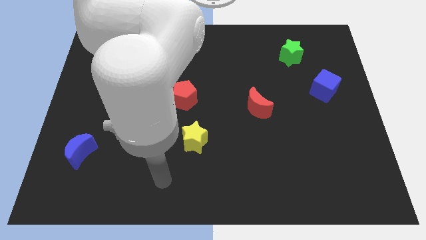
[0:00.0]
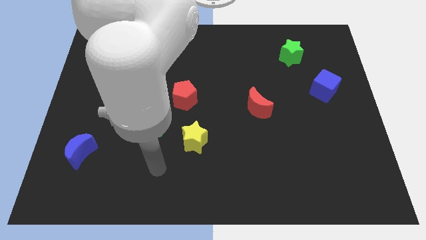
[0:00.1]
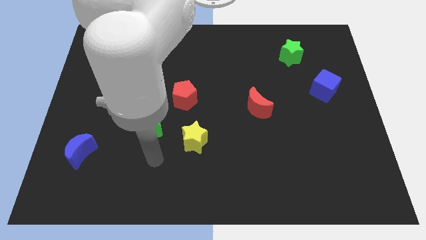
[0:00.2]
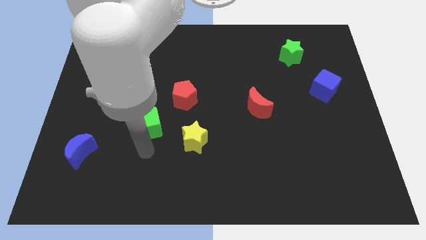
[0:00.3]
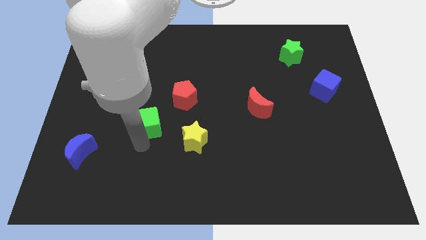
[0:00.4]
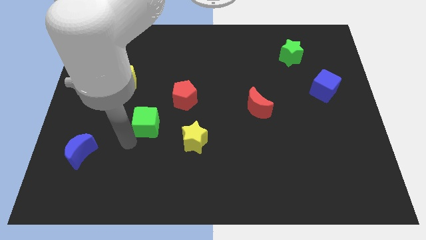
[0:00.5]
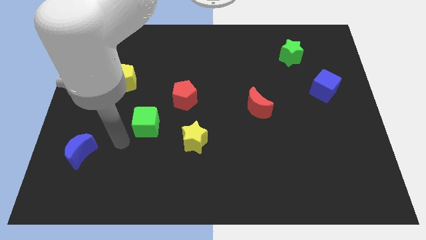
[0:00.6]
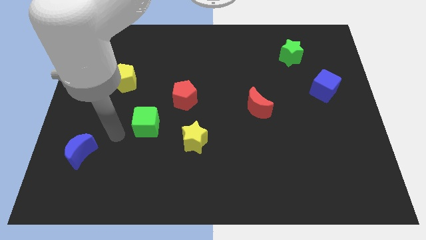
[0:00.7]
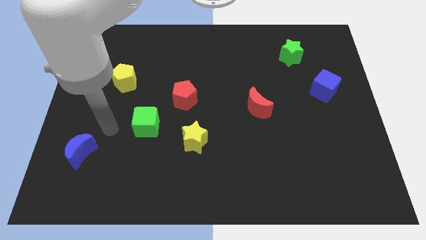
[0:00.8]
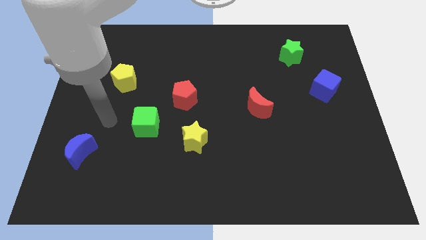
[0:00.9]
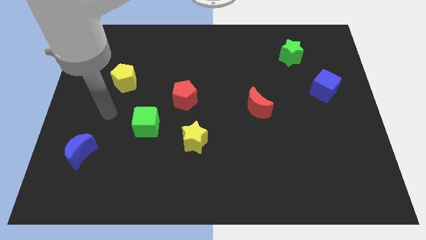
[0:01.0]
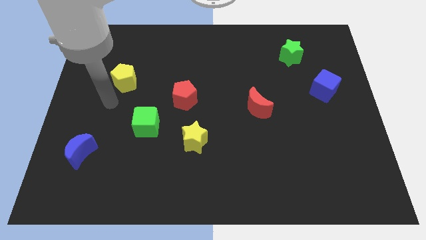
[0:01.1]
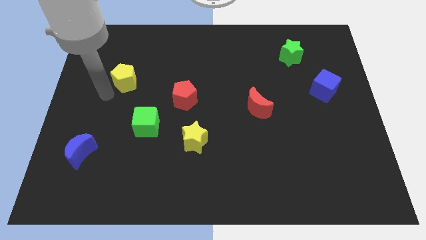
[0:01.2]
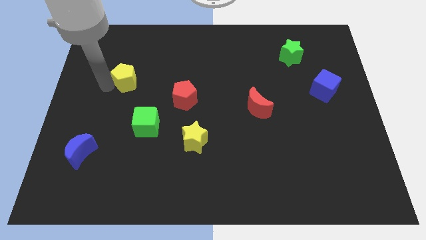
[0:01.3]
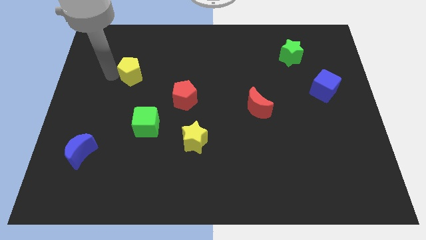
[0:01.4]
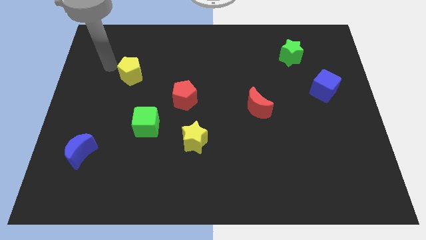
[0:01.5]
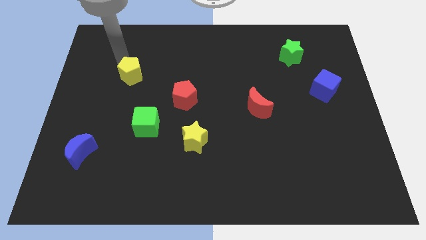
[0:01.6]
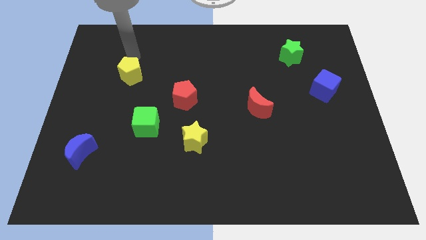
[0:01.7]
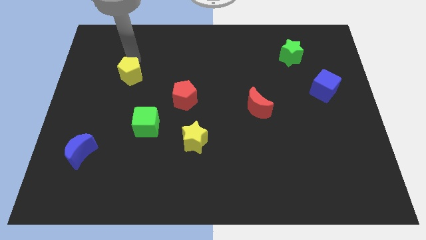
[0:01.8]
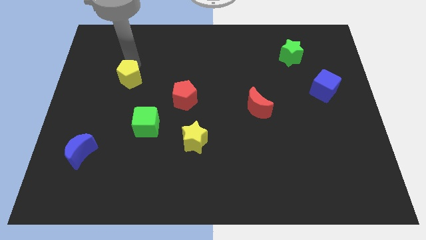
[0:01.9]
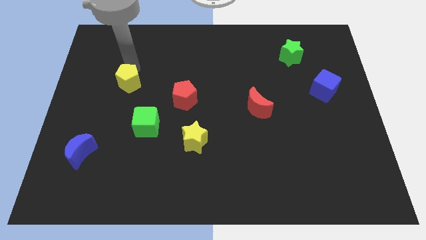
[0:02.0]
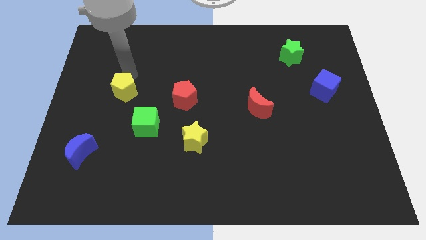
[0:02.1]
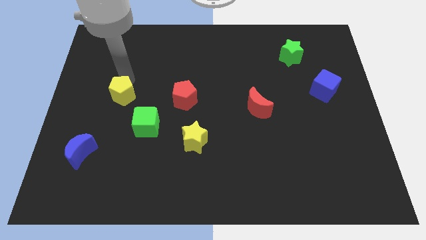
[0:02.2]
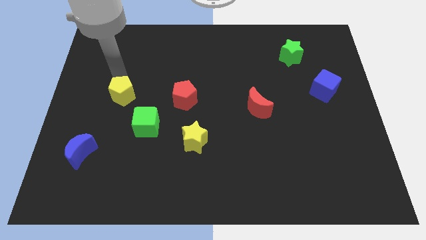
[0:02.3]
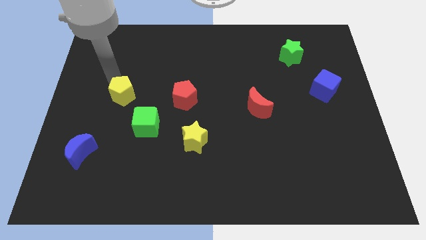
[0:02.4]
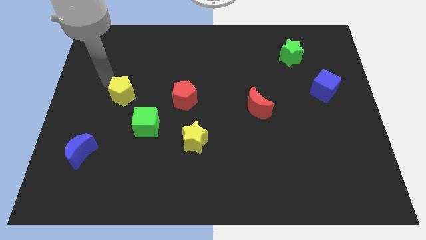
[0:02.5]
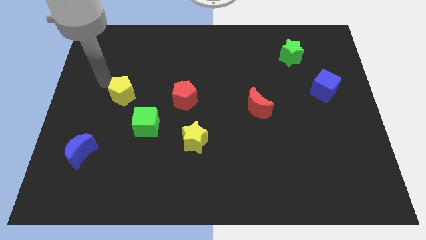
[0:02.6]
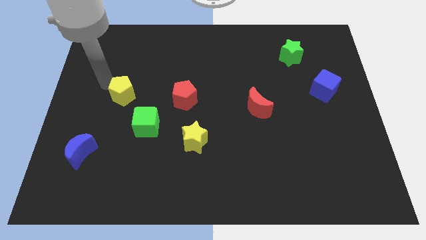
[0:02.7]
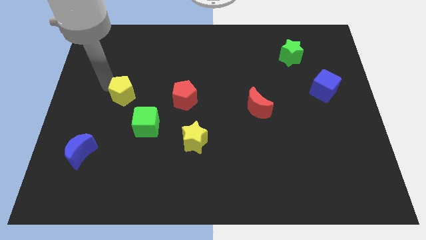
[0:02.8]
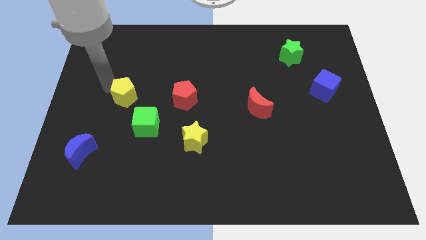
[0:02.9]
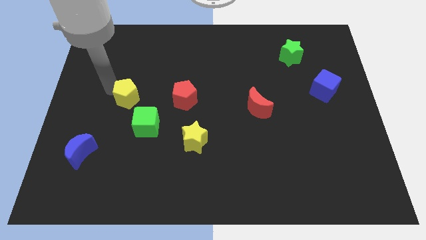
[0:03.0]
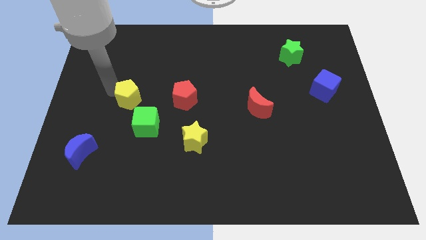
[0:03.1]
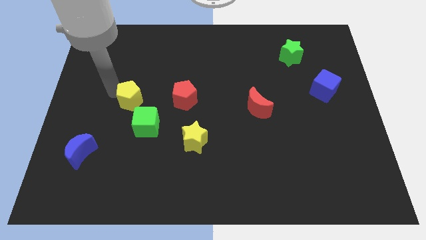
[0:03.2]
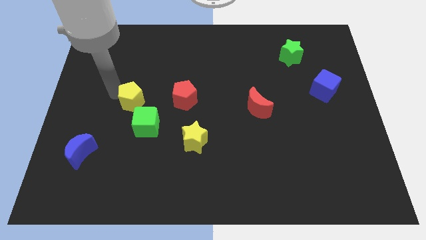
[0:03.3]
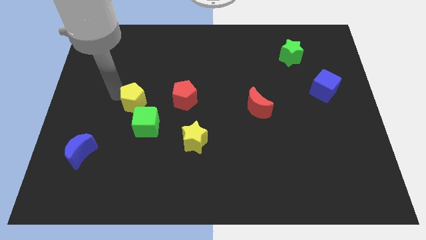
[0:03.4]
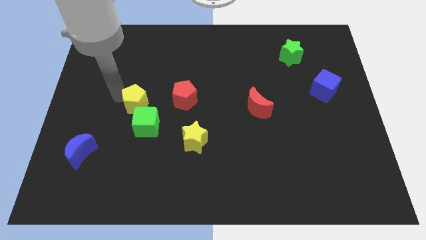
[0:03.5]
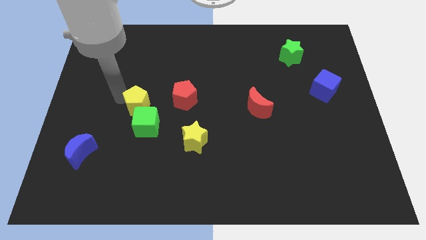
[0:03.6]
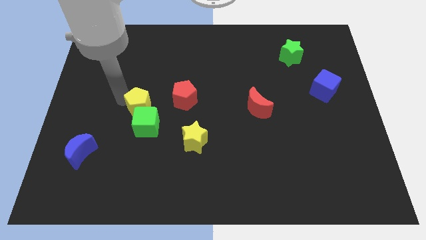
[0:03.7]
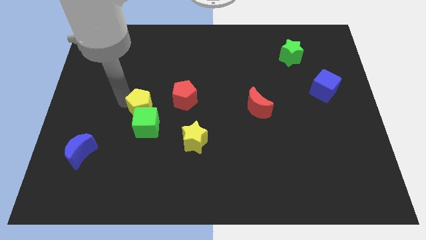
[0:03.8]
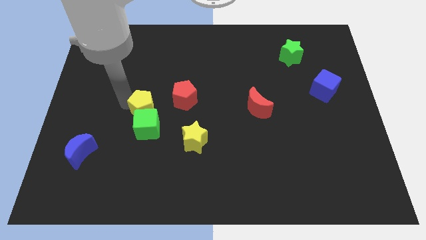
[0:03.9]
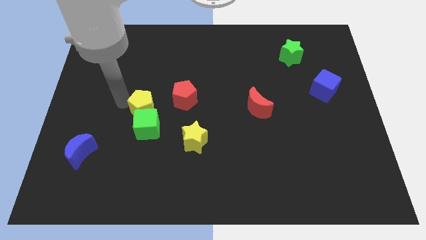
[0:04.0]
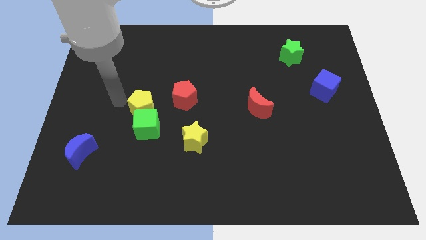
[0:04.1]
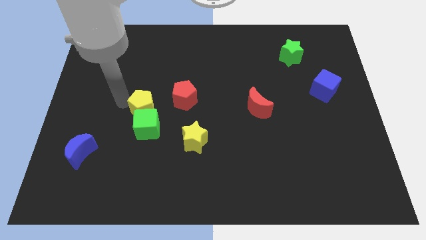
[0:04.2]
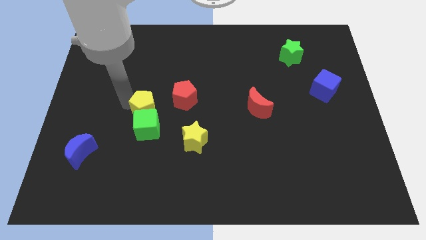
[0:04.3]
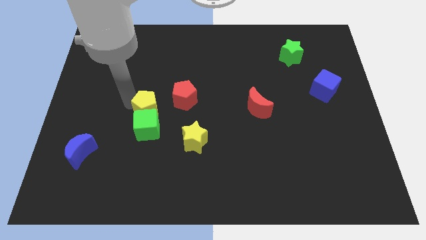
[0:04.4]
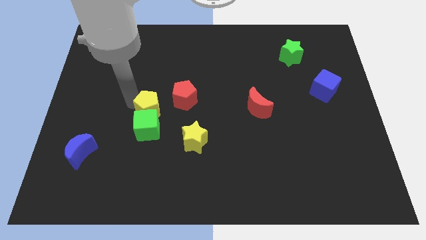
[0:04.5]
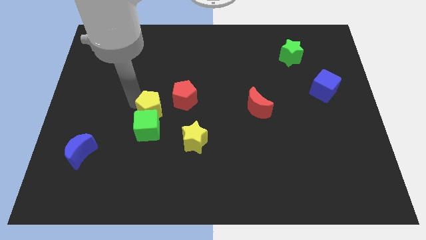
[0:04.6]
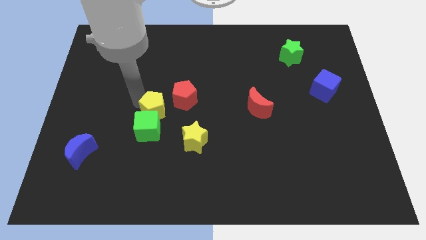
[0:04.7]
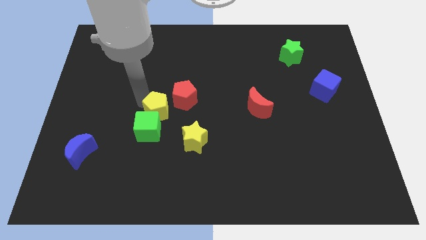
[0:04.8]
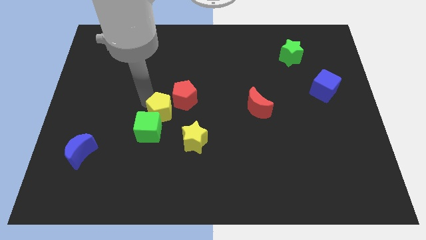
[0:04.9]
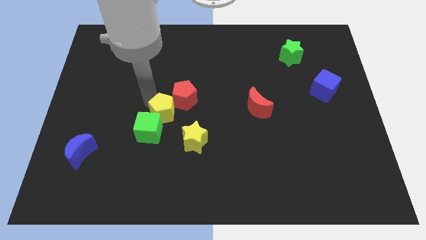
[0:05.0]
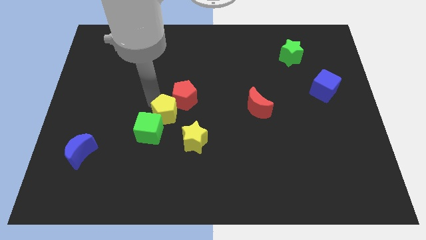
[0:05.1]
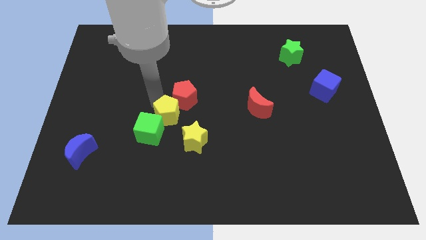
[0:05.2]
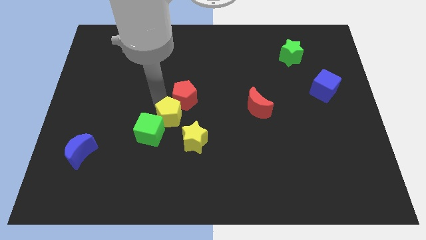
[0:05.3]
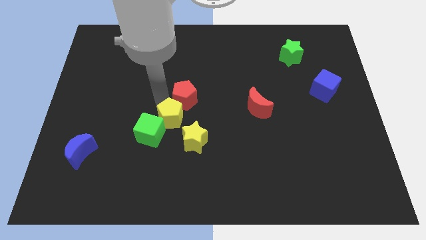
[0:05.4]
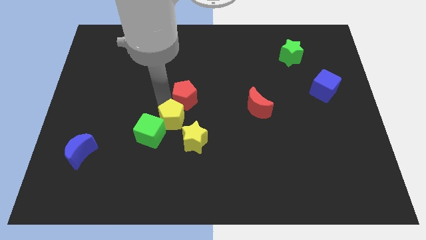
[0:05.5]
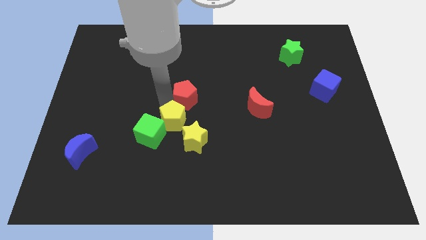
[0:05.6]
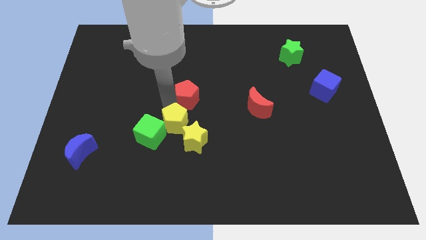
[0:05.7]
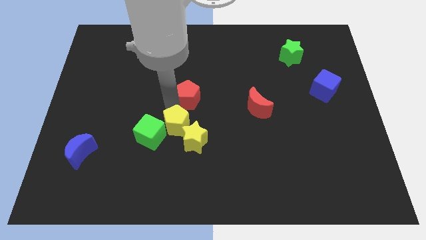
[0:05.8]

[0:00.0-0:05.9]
push the yellow pentagon to the yellow star

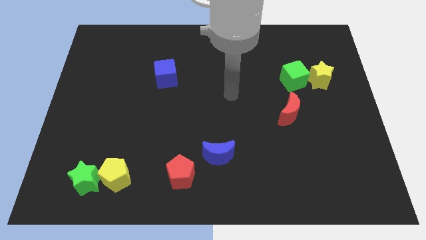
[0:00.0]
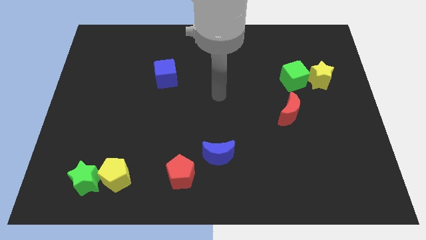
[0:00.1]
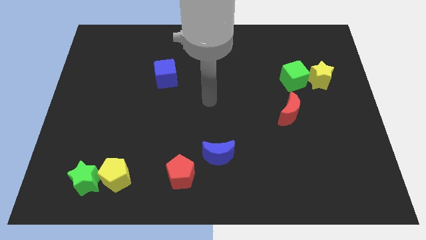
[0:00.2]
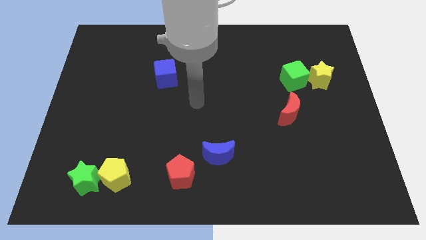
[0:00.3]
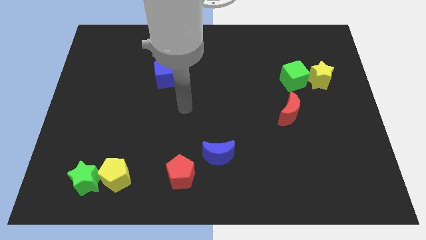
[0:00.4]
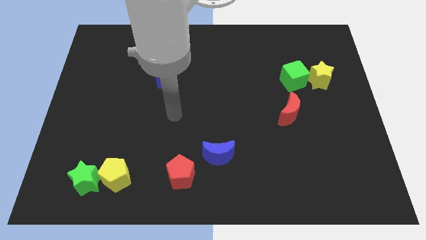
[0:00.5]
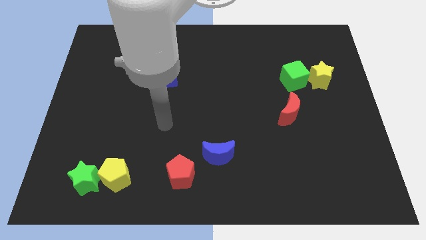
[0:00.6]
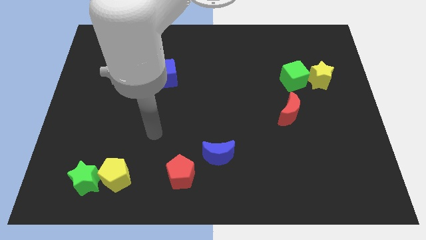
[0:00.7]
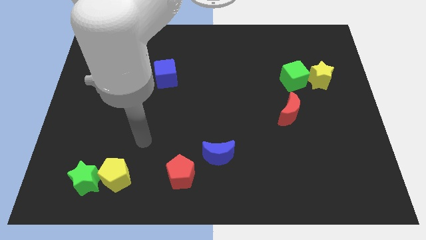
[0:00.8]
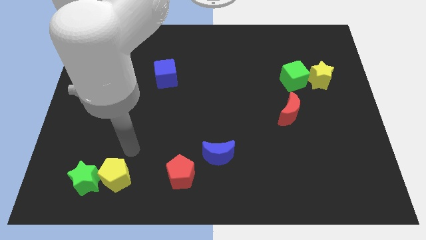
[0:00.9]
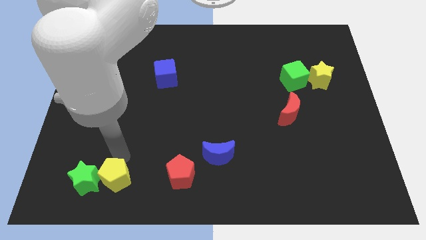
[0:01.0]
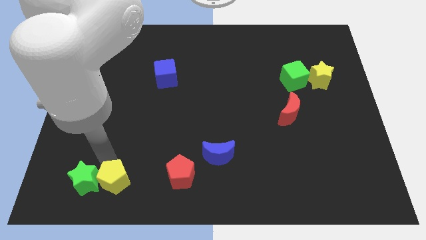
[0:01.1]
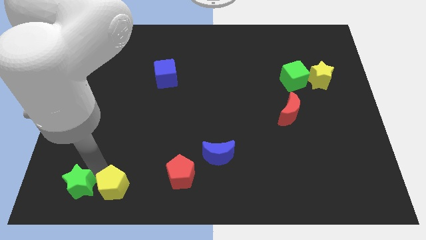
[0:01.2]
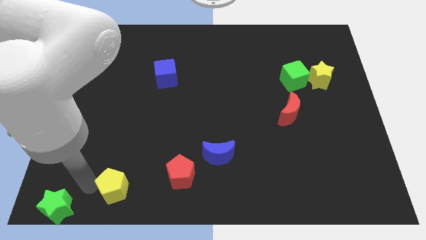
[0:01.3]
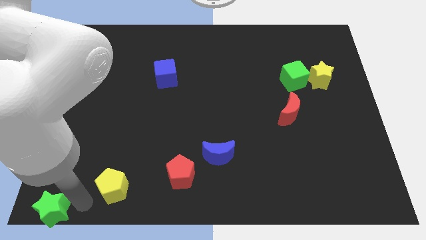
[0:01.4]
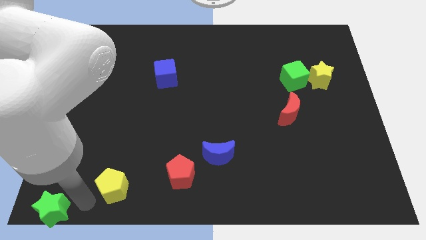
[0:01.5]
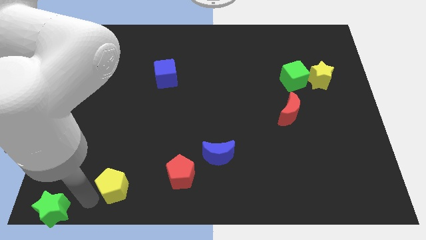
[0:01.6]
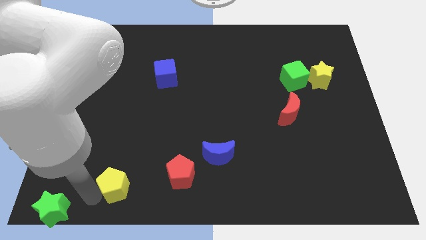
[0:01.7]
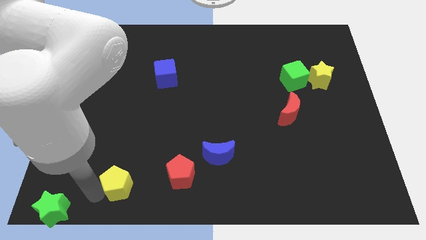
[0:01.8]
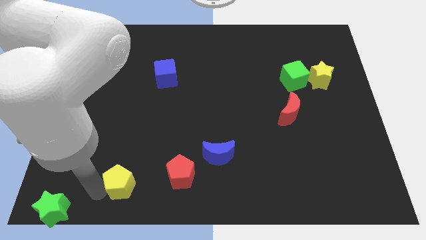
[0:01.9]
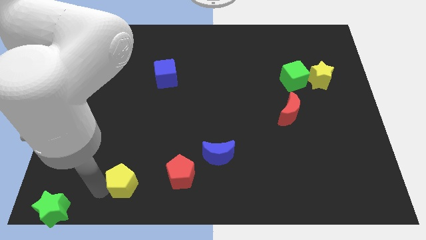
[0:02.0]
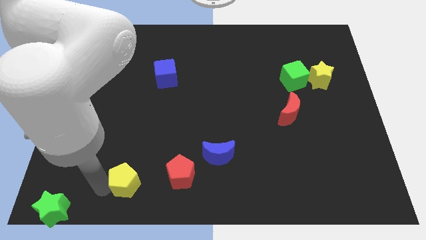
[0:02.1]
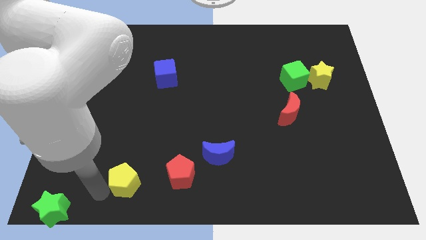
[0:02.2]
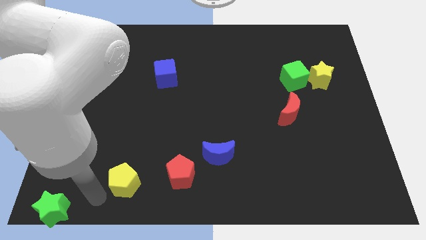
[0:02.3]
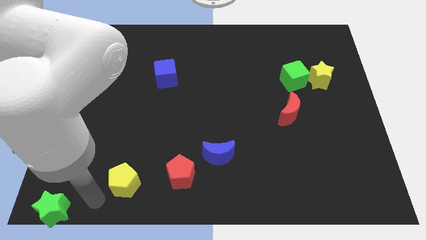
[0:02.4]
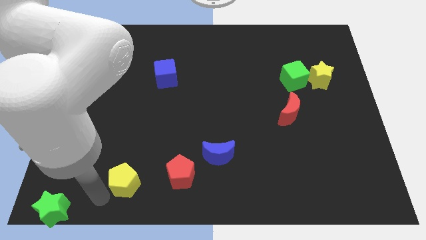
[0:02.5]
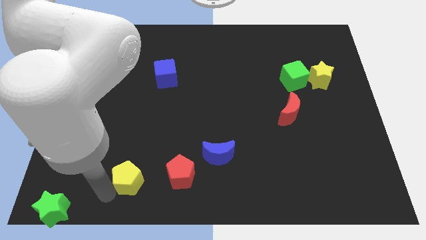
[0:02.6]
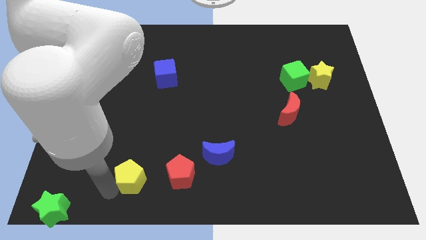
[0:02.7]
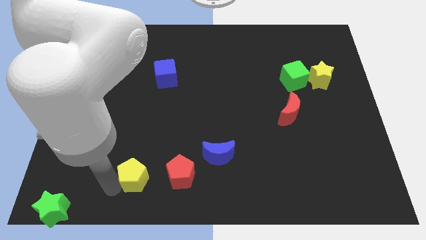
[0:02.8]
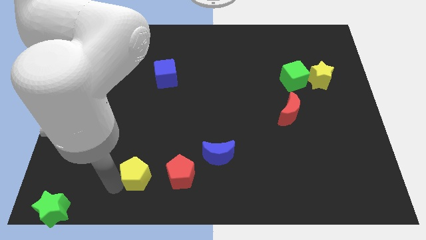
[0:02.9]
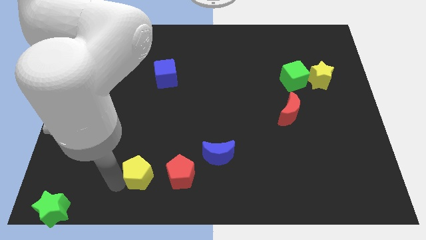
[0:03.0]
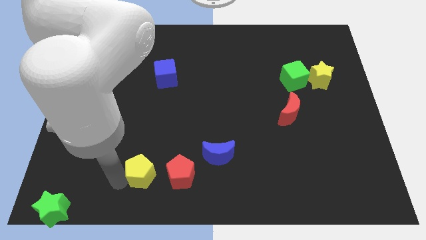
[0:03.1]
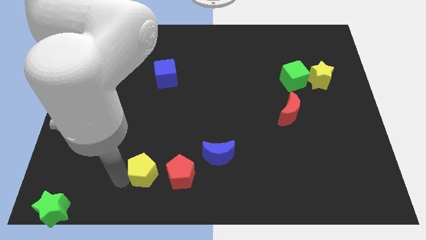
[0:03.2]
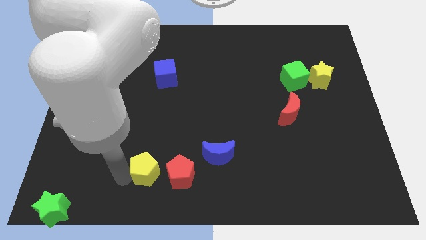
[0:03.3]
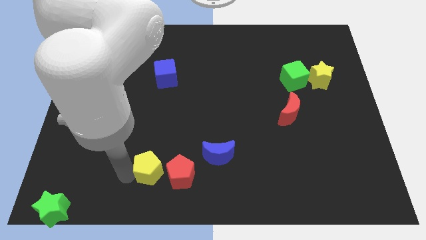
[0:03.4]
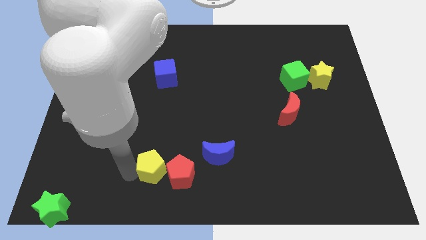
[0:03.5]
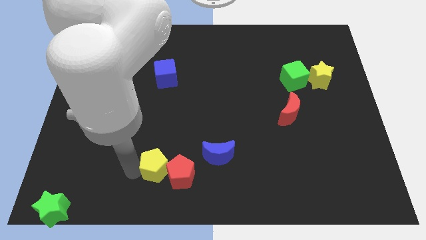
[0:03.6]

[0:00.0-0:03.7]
move the yellow pentagon towards the red pentagon
